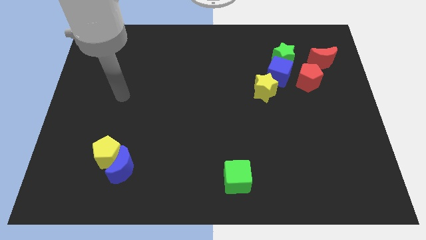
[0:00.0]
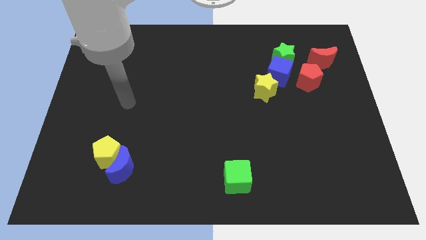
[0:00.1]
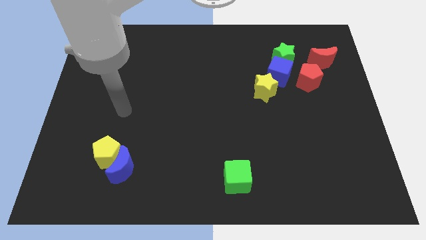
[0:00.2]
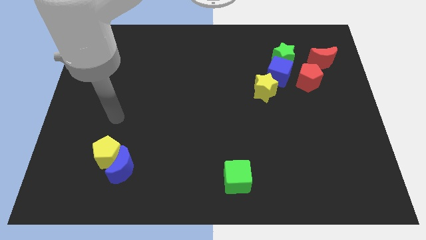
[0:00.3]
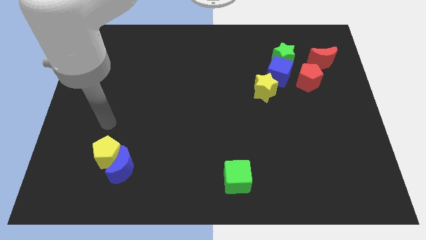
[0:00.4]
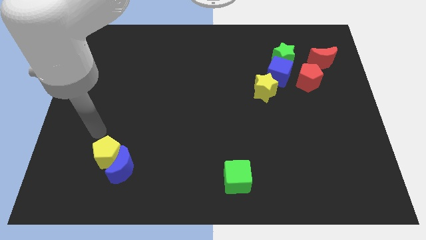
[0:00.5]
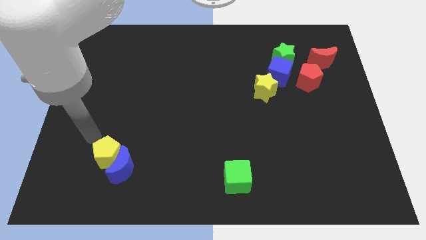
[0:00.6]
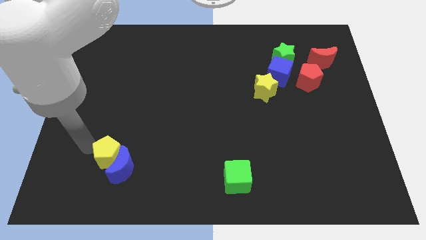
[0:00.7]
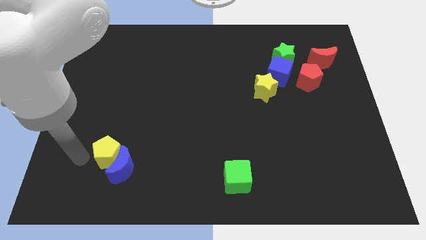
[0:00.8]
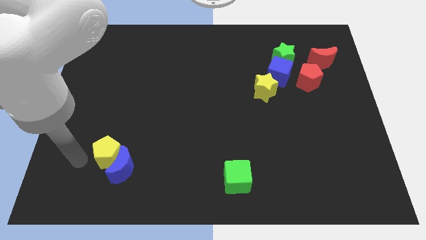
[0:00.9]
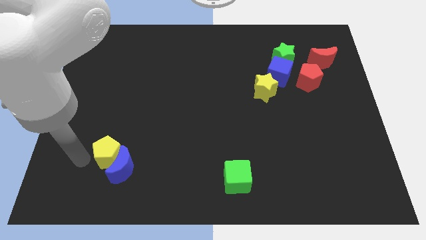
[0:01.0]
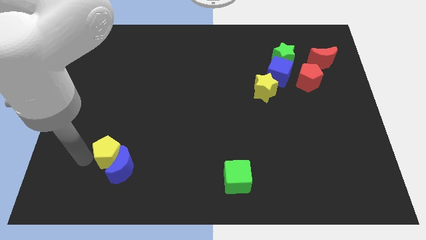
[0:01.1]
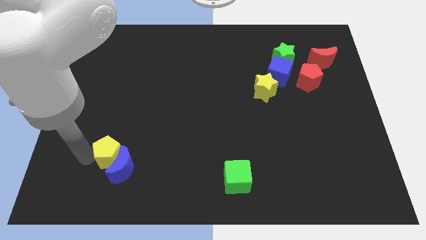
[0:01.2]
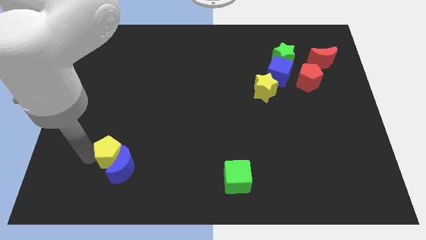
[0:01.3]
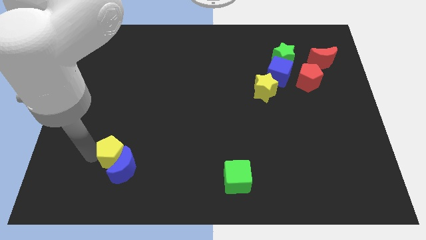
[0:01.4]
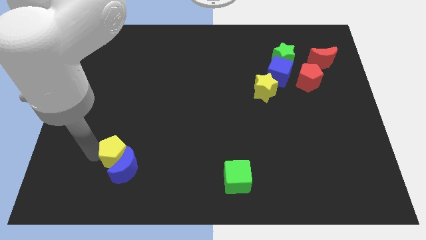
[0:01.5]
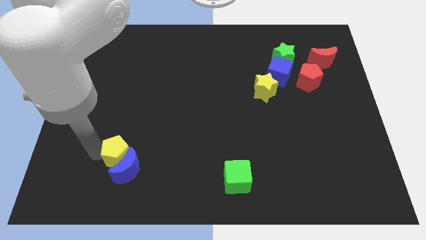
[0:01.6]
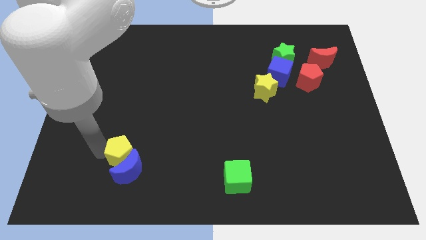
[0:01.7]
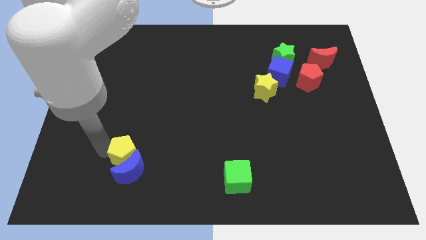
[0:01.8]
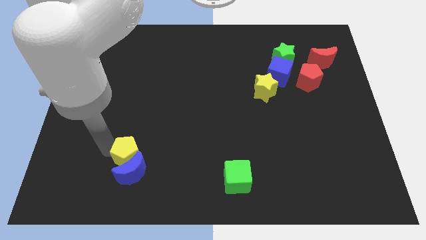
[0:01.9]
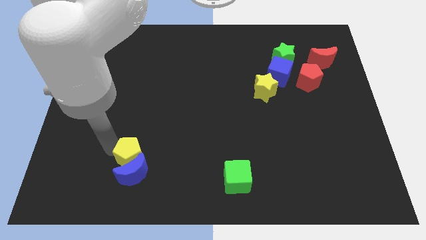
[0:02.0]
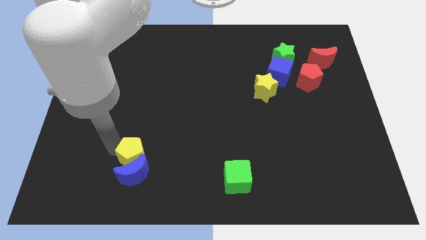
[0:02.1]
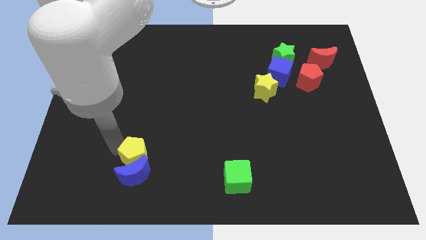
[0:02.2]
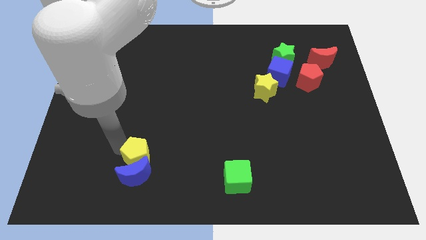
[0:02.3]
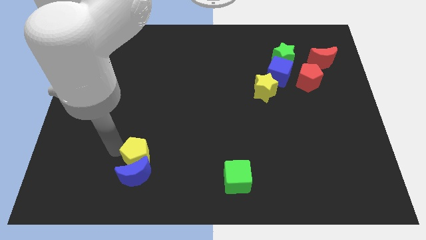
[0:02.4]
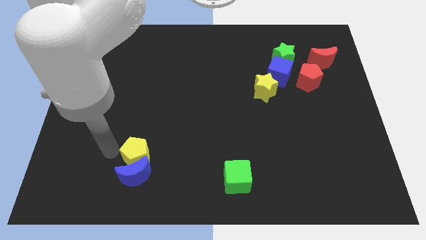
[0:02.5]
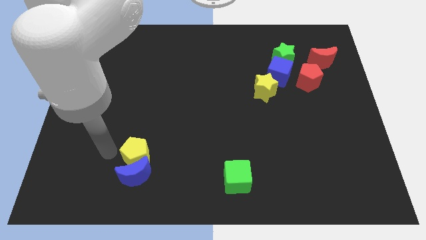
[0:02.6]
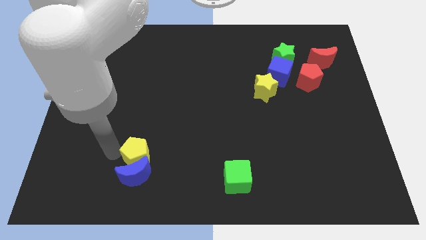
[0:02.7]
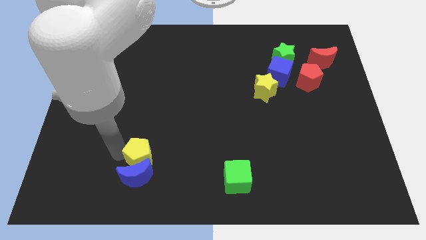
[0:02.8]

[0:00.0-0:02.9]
slide the yellow pentagon somewhat to the right

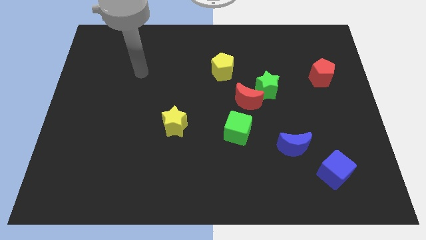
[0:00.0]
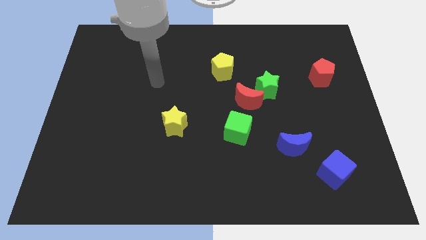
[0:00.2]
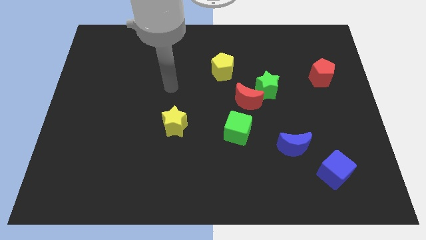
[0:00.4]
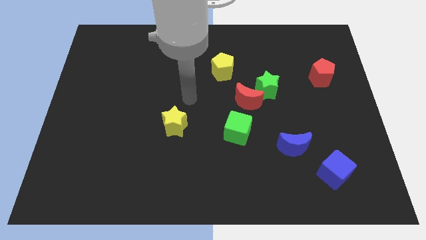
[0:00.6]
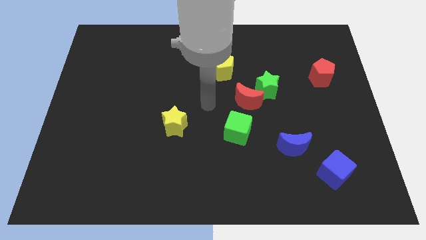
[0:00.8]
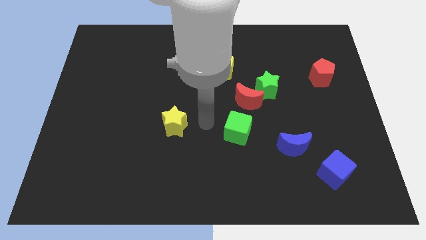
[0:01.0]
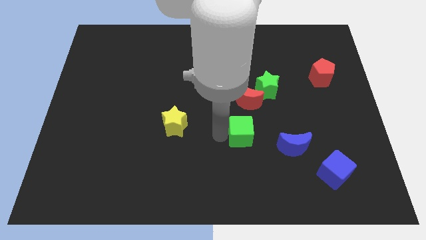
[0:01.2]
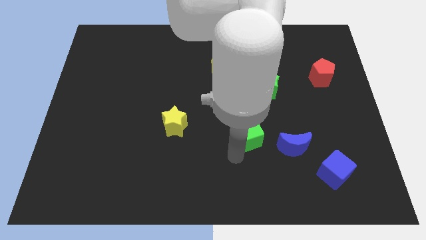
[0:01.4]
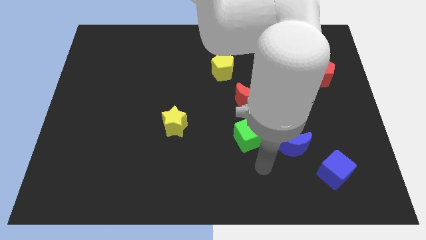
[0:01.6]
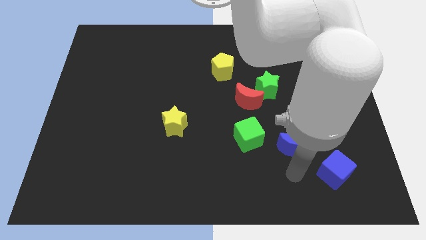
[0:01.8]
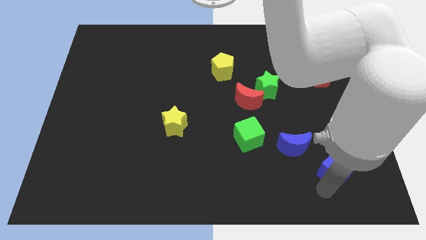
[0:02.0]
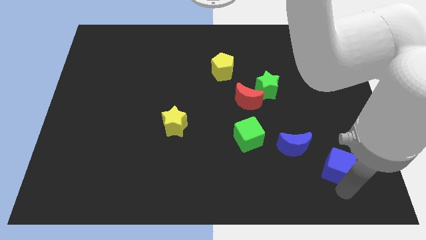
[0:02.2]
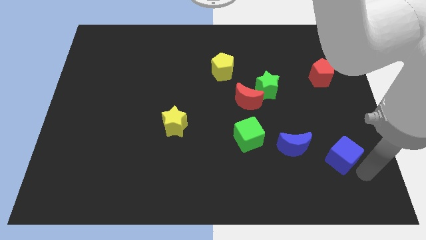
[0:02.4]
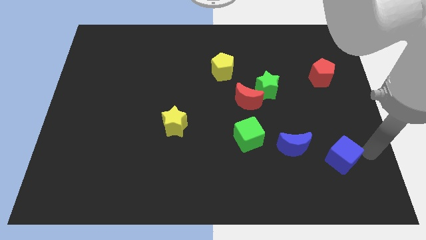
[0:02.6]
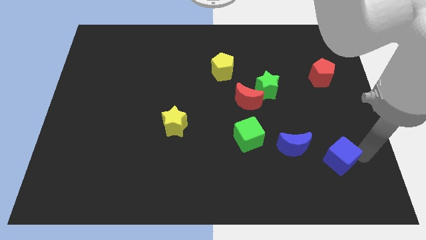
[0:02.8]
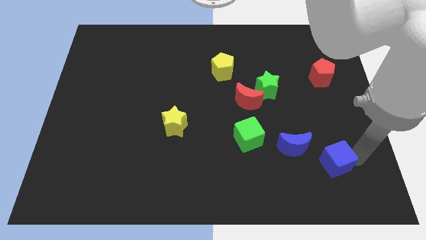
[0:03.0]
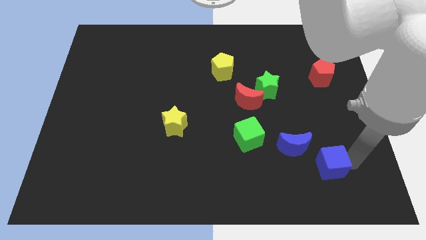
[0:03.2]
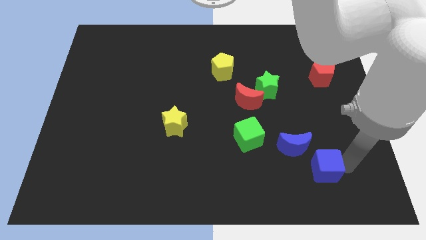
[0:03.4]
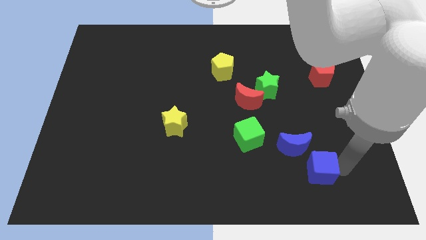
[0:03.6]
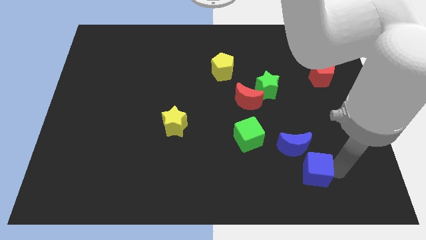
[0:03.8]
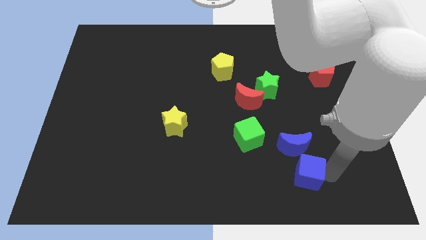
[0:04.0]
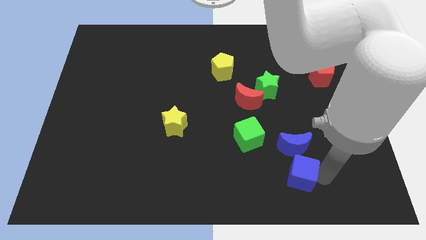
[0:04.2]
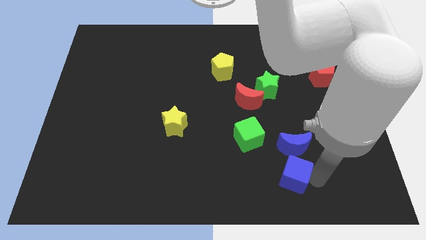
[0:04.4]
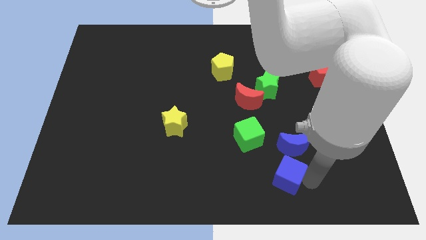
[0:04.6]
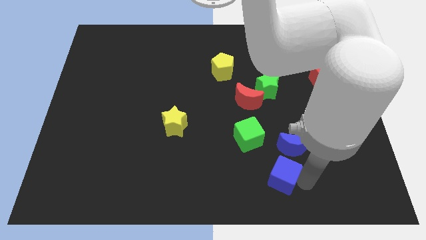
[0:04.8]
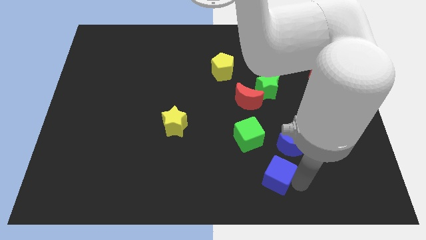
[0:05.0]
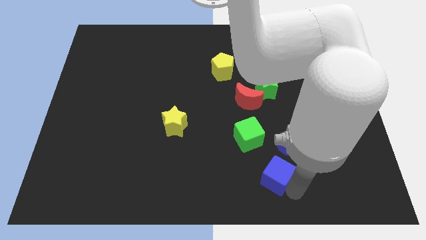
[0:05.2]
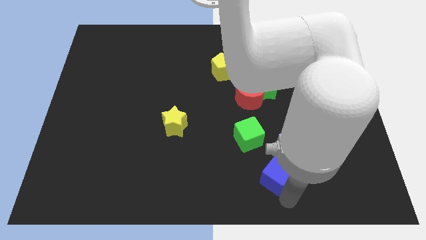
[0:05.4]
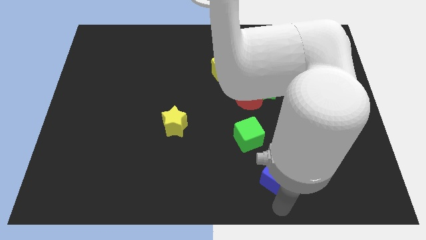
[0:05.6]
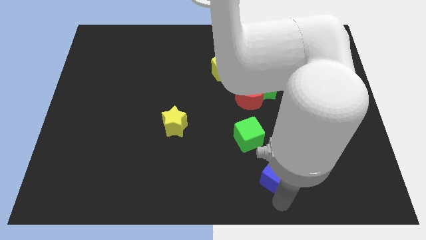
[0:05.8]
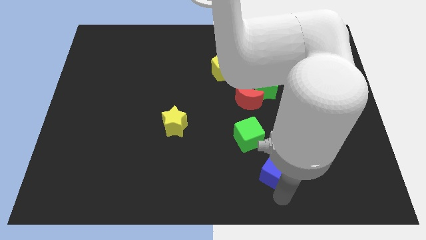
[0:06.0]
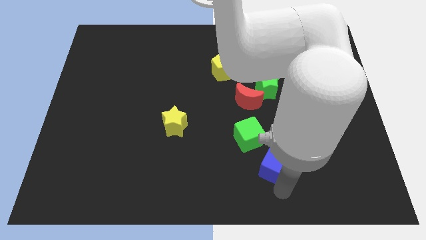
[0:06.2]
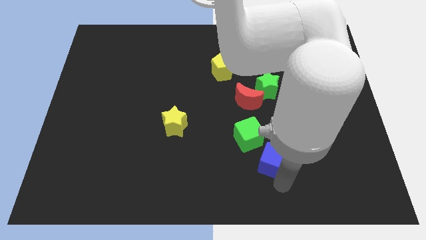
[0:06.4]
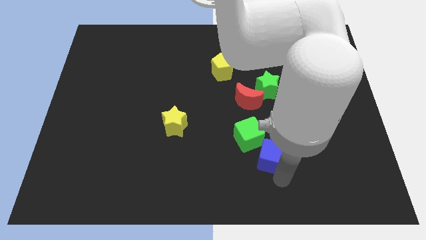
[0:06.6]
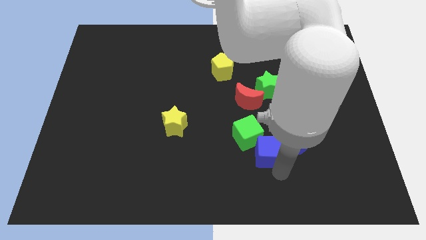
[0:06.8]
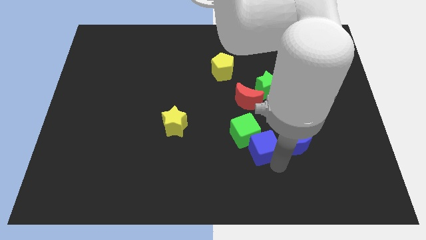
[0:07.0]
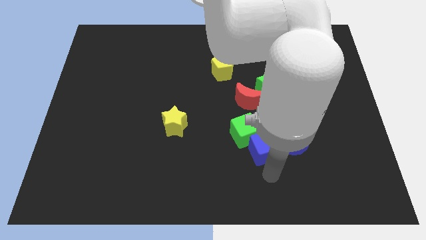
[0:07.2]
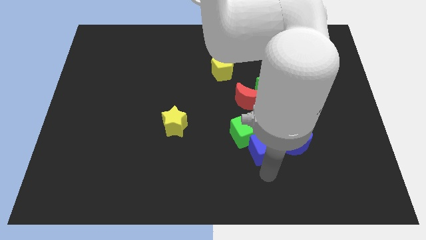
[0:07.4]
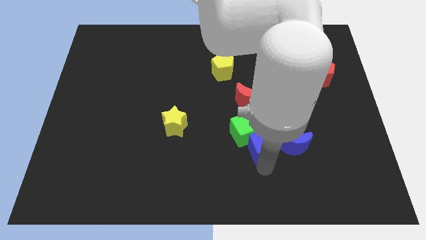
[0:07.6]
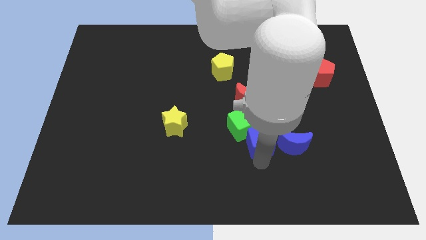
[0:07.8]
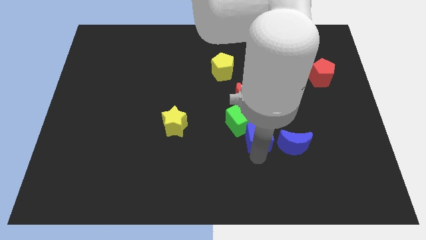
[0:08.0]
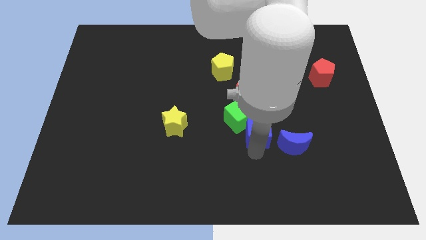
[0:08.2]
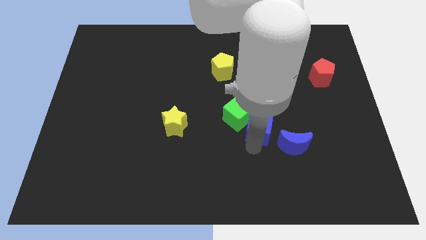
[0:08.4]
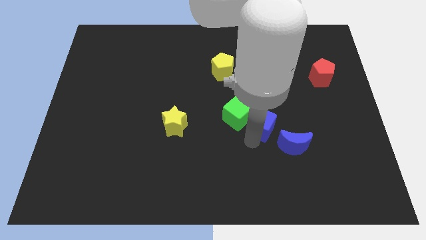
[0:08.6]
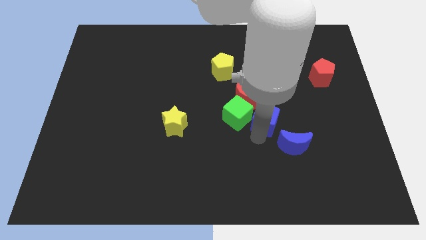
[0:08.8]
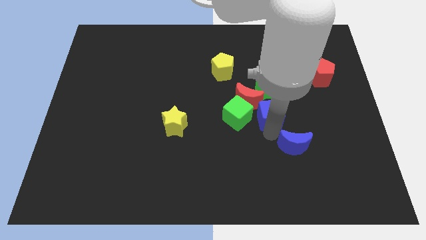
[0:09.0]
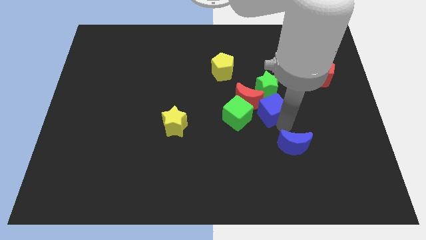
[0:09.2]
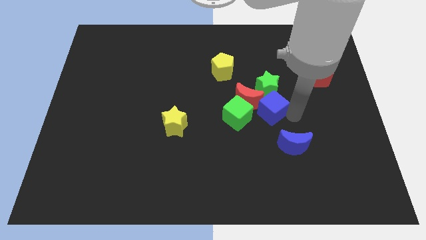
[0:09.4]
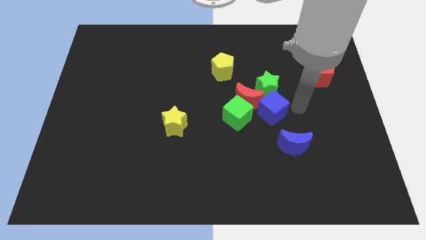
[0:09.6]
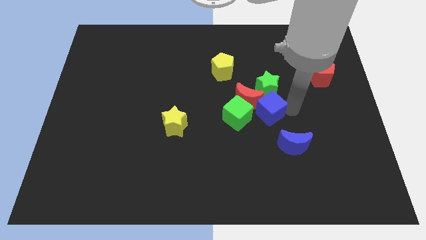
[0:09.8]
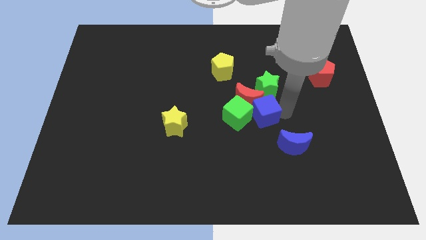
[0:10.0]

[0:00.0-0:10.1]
slide the blue cube up and to the left
